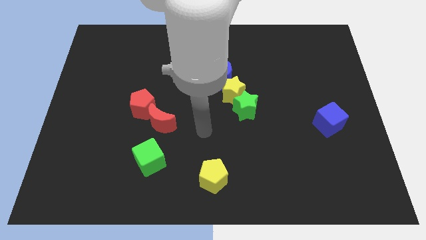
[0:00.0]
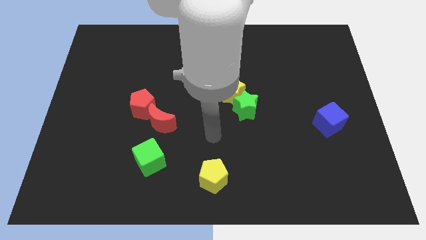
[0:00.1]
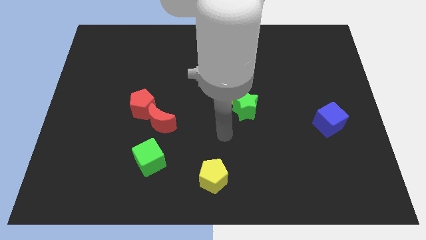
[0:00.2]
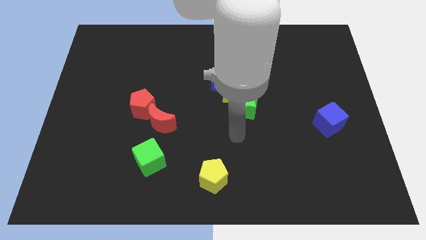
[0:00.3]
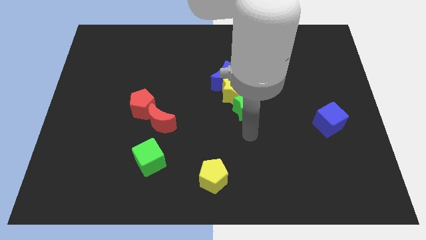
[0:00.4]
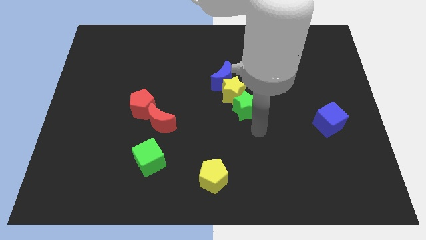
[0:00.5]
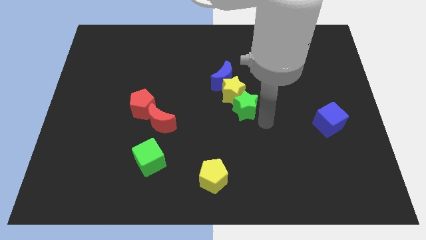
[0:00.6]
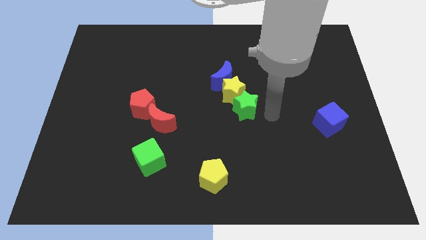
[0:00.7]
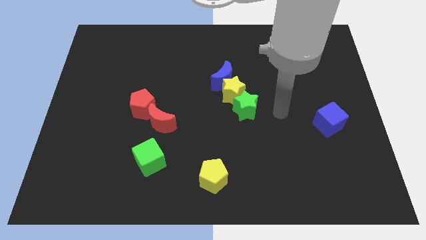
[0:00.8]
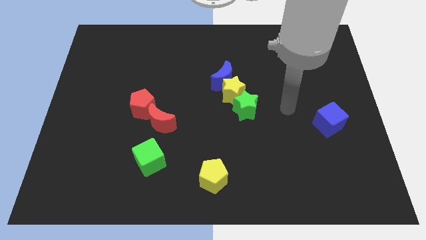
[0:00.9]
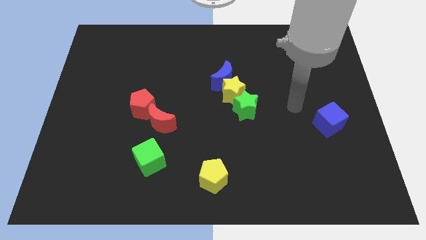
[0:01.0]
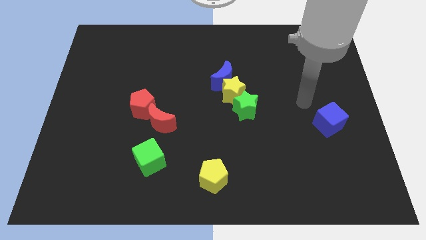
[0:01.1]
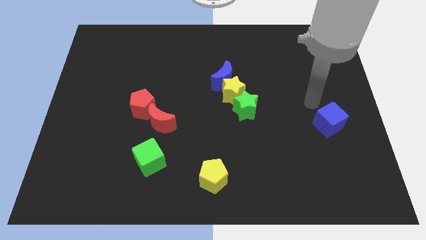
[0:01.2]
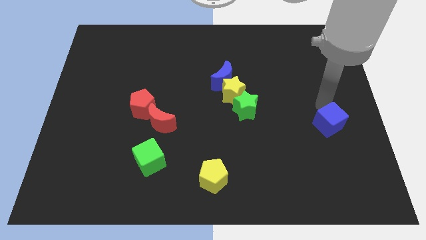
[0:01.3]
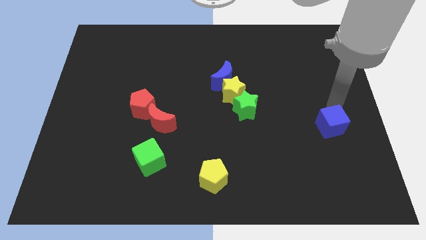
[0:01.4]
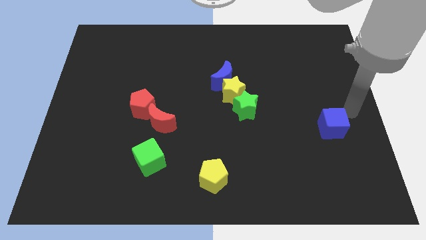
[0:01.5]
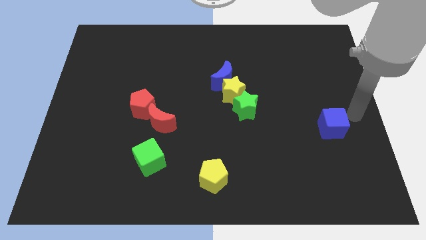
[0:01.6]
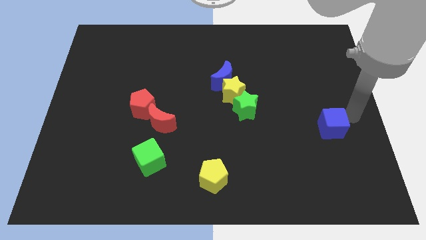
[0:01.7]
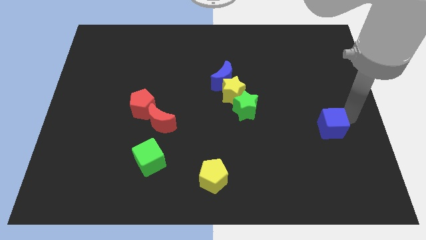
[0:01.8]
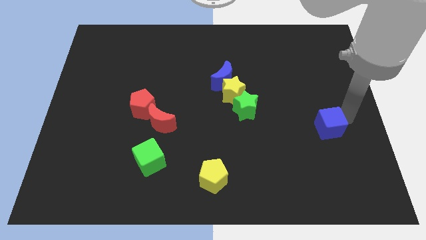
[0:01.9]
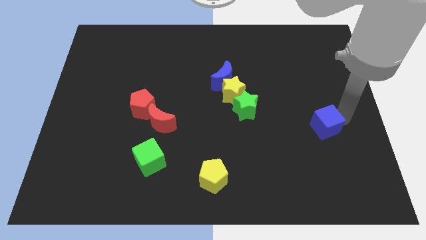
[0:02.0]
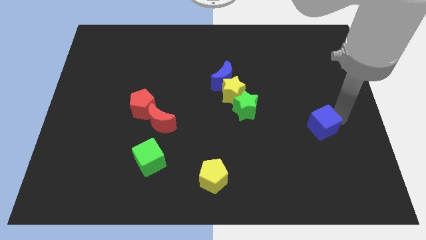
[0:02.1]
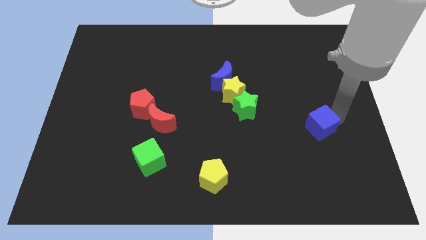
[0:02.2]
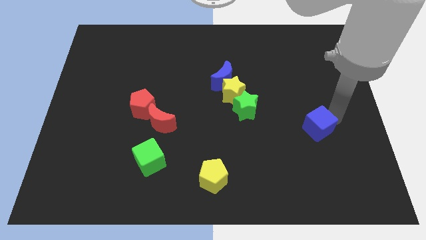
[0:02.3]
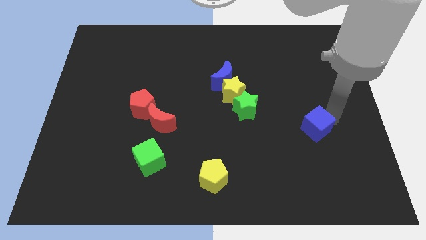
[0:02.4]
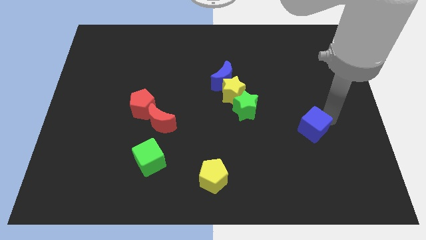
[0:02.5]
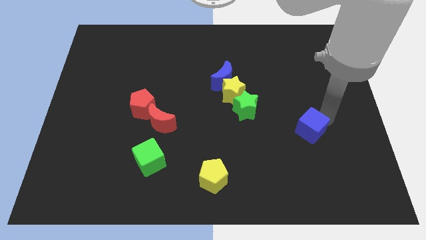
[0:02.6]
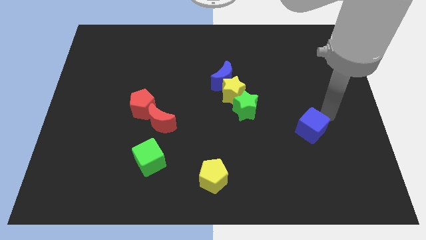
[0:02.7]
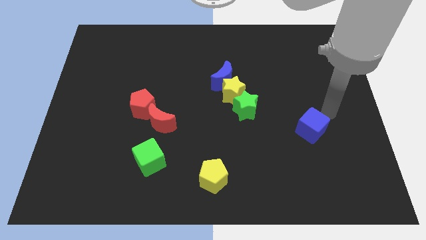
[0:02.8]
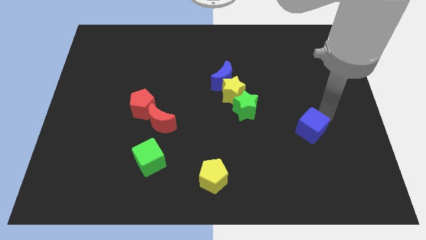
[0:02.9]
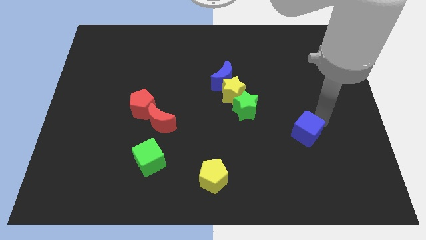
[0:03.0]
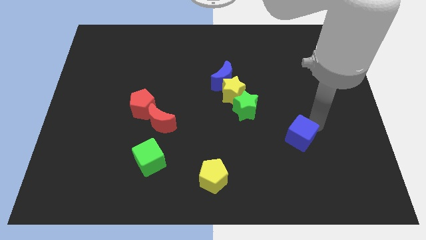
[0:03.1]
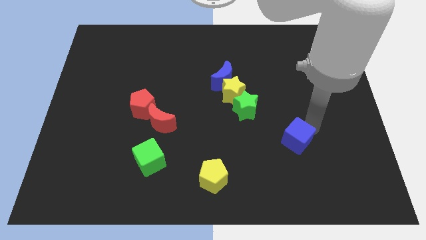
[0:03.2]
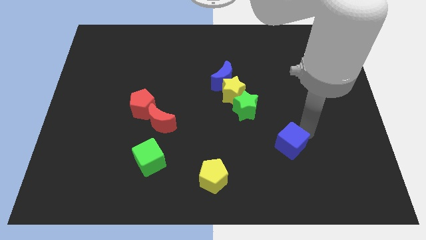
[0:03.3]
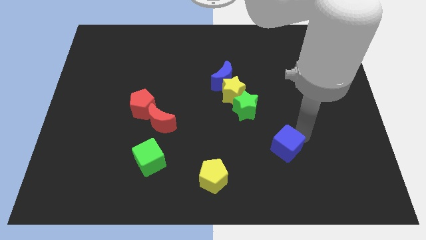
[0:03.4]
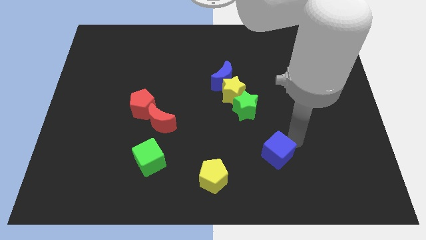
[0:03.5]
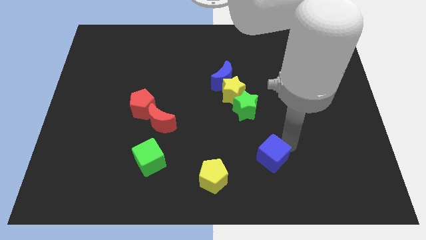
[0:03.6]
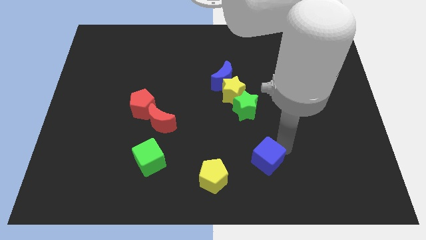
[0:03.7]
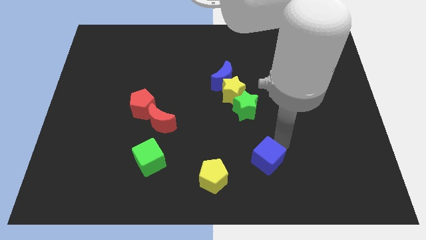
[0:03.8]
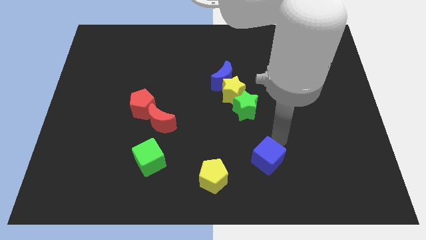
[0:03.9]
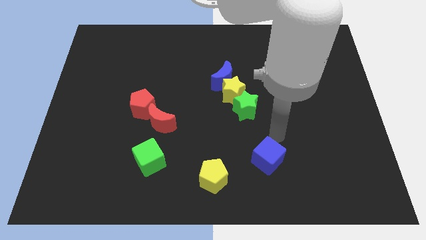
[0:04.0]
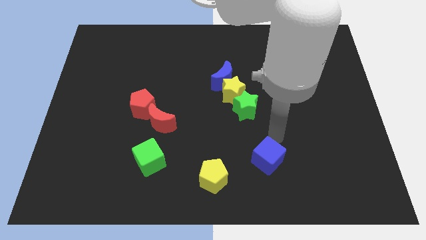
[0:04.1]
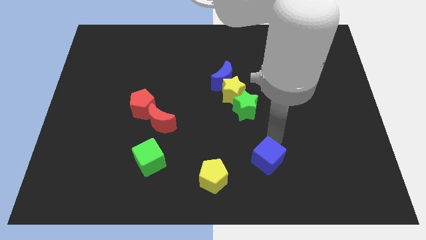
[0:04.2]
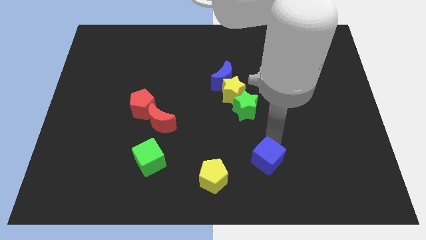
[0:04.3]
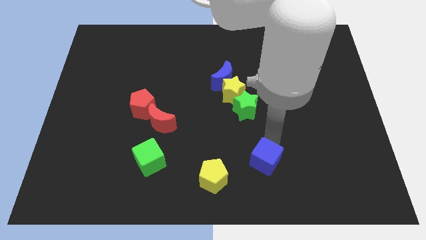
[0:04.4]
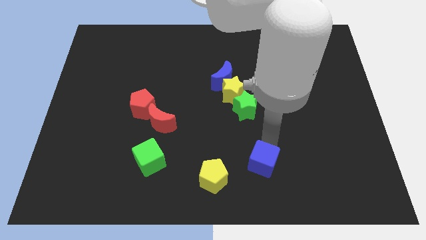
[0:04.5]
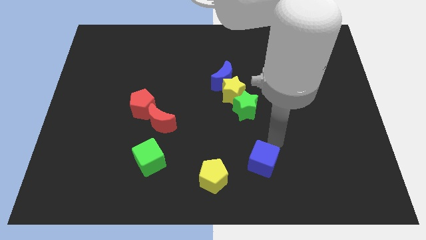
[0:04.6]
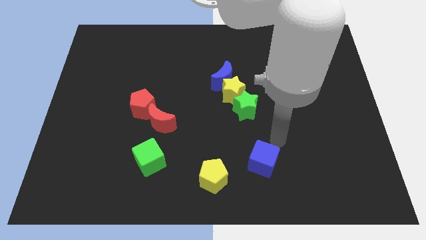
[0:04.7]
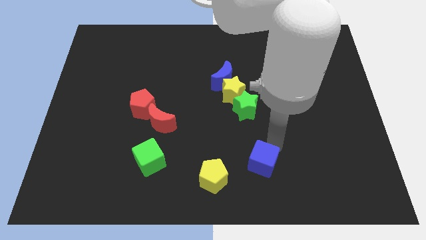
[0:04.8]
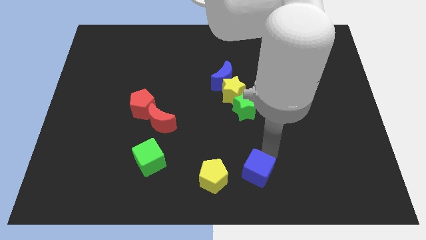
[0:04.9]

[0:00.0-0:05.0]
move the blue cube to the bottom

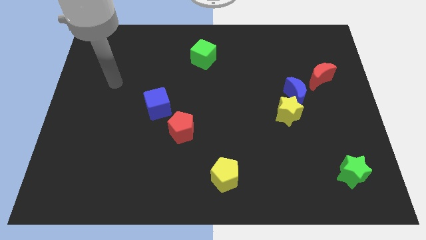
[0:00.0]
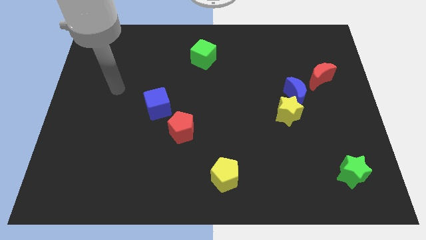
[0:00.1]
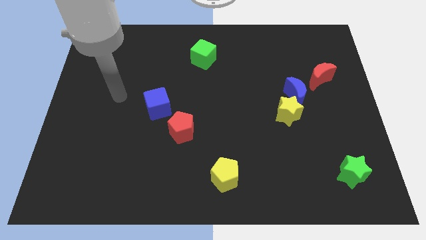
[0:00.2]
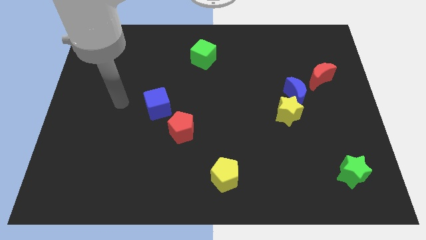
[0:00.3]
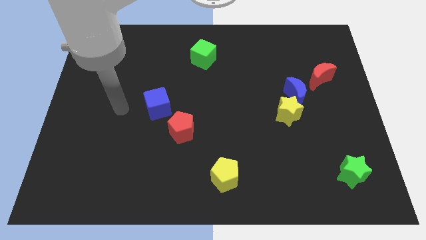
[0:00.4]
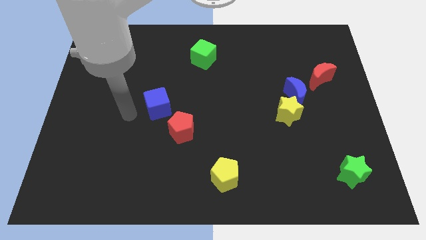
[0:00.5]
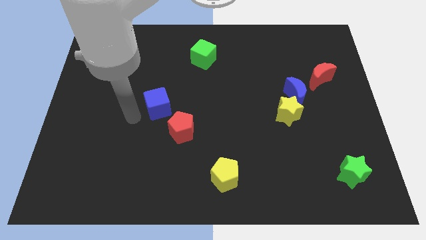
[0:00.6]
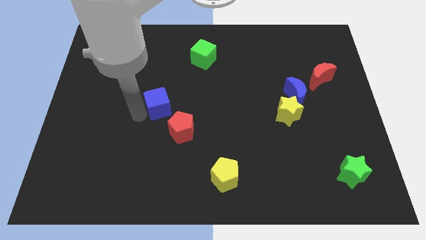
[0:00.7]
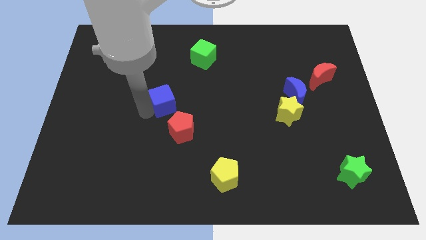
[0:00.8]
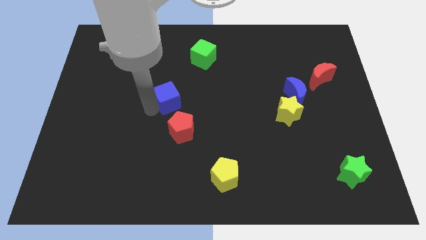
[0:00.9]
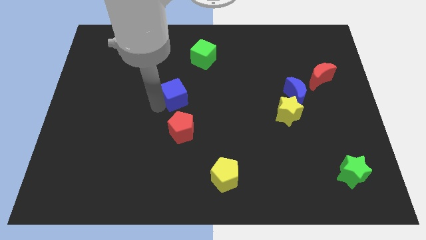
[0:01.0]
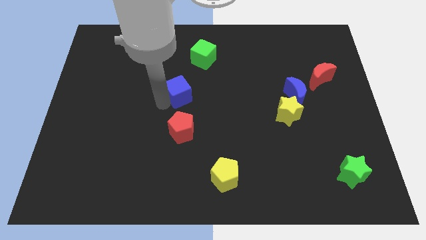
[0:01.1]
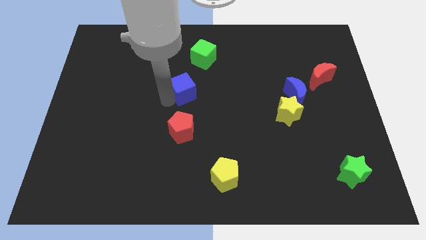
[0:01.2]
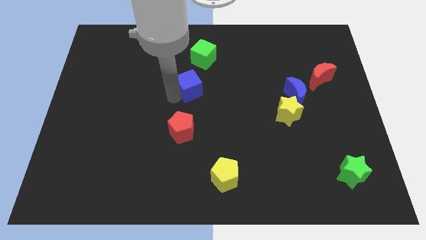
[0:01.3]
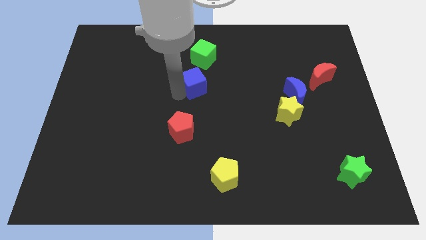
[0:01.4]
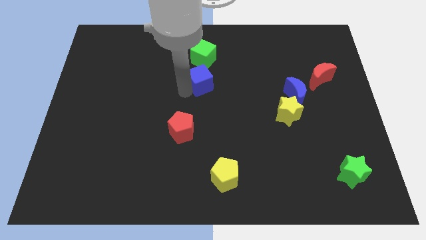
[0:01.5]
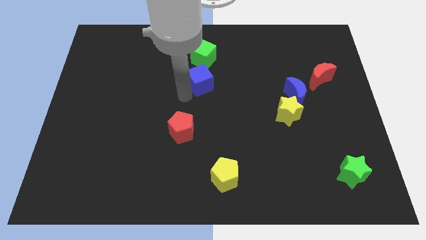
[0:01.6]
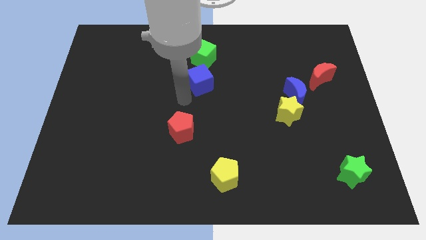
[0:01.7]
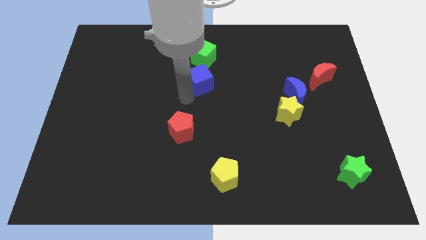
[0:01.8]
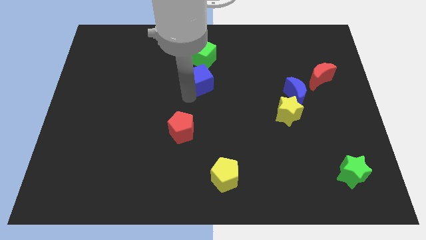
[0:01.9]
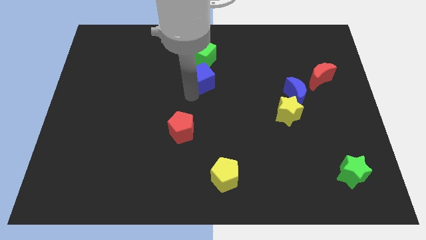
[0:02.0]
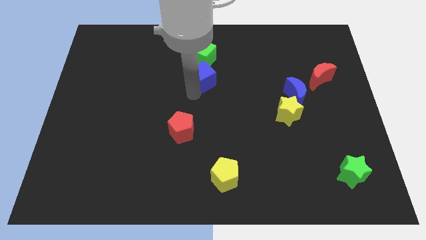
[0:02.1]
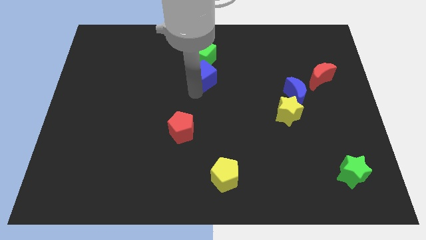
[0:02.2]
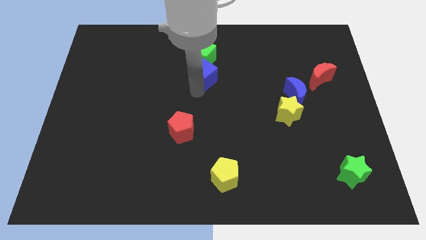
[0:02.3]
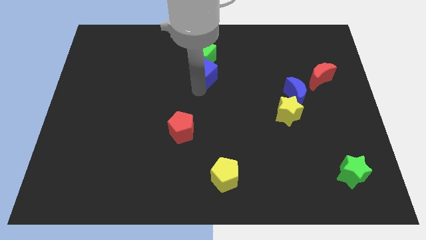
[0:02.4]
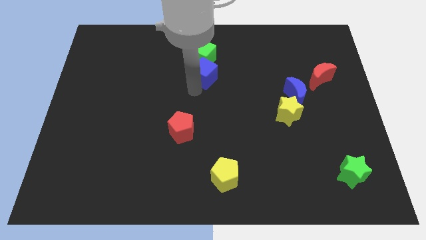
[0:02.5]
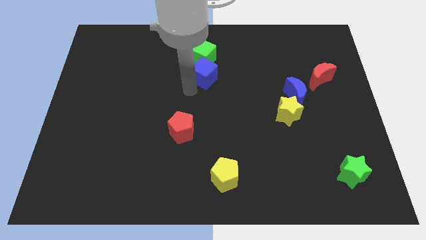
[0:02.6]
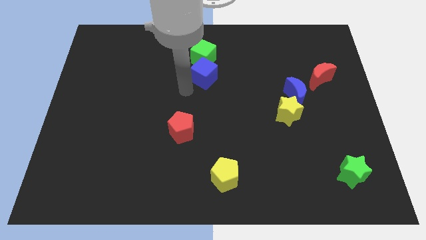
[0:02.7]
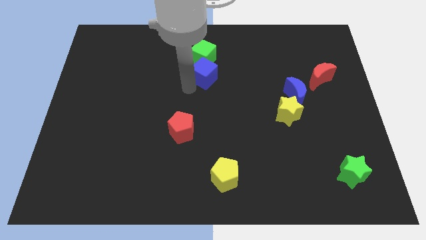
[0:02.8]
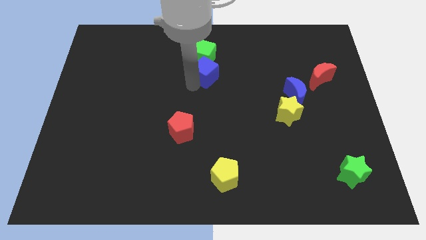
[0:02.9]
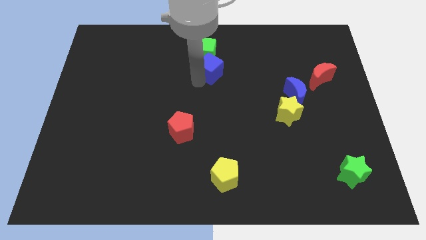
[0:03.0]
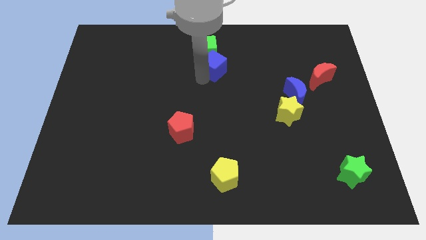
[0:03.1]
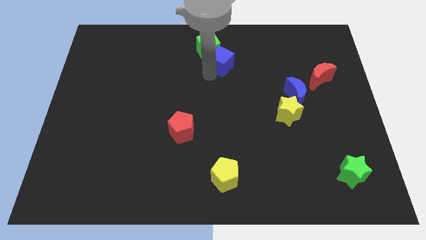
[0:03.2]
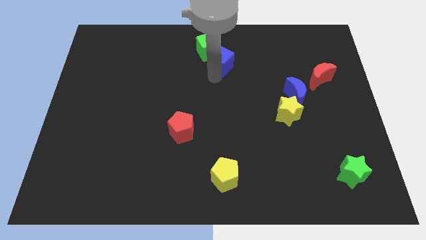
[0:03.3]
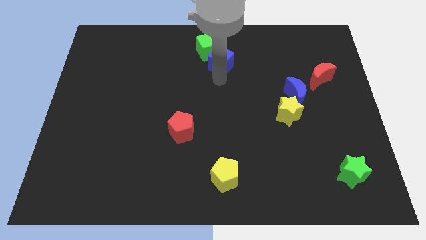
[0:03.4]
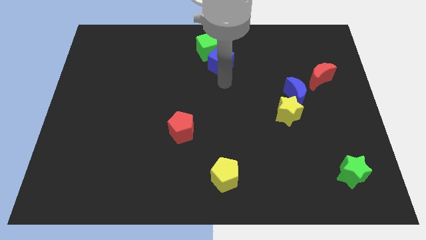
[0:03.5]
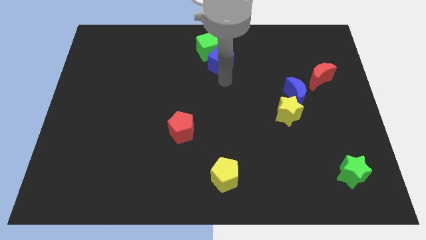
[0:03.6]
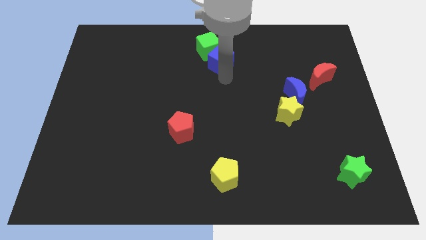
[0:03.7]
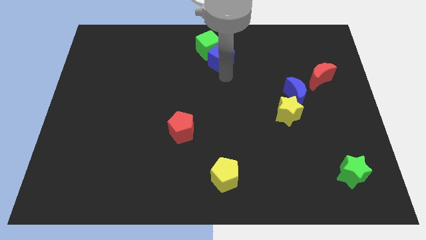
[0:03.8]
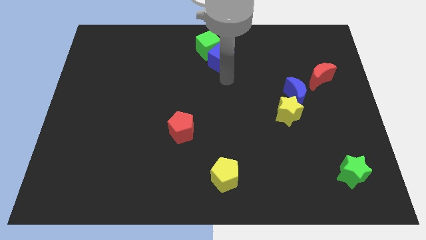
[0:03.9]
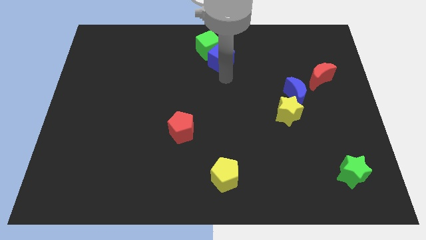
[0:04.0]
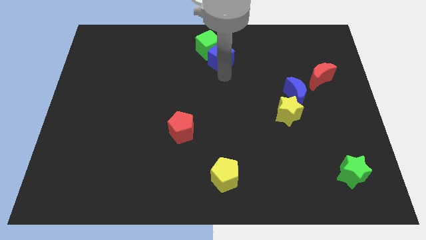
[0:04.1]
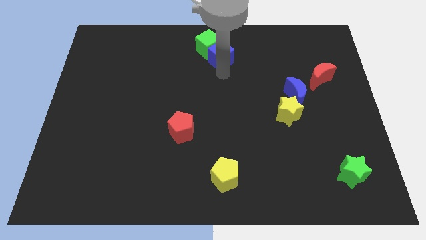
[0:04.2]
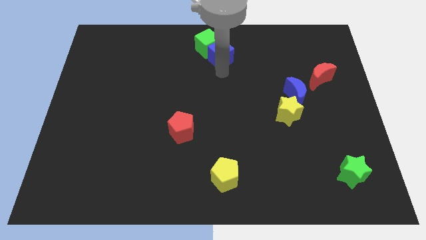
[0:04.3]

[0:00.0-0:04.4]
push the blue cube to the top side
